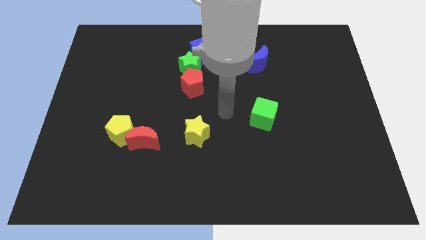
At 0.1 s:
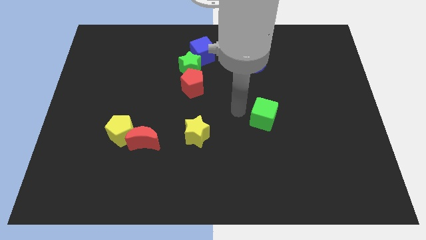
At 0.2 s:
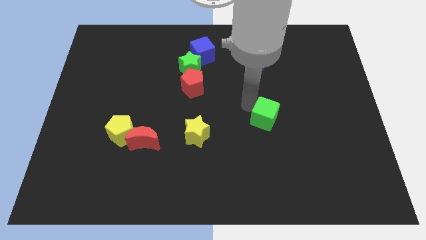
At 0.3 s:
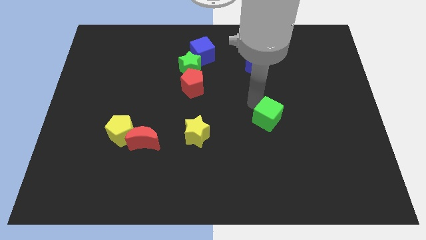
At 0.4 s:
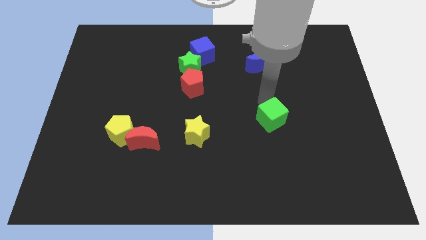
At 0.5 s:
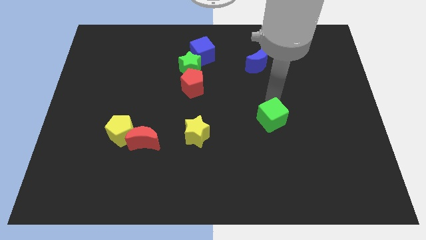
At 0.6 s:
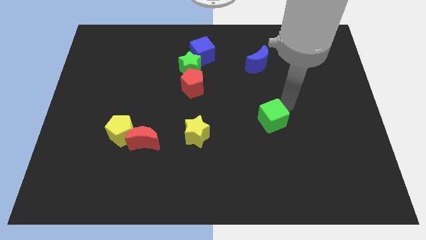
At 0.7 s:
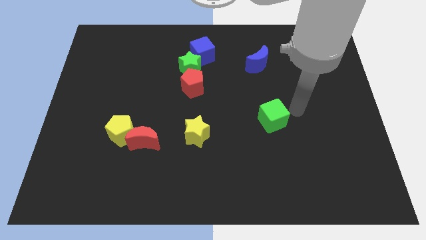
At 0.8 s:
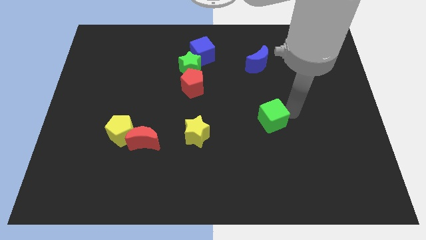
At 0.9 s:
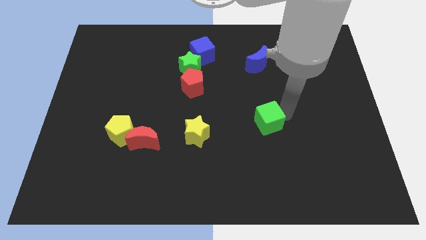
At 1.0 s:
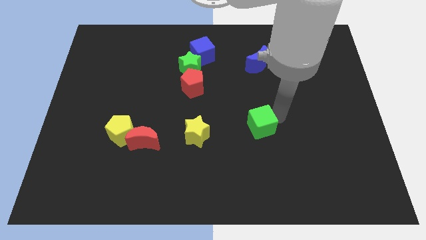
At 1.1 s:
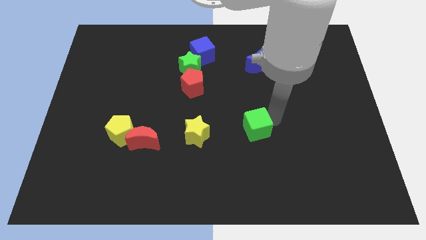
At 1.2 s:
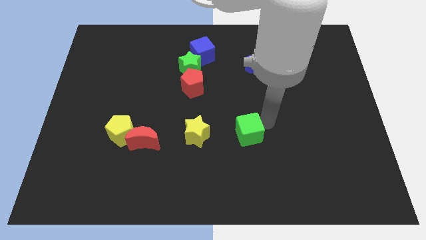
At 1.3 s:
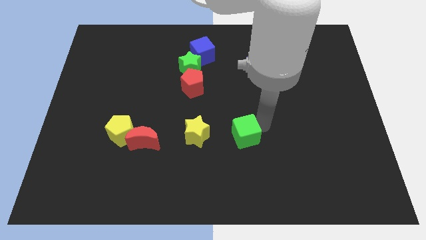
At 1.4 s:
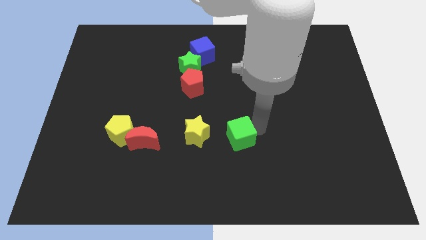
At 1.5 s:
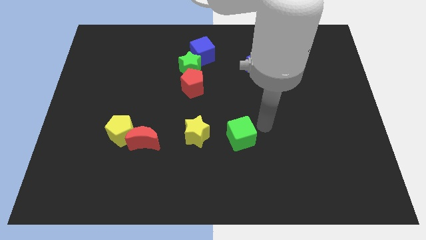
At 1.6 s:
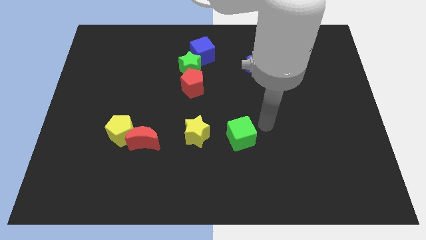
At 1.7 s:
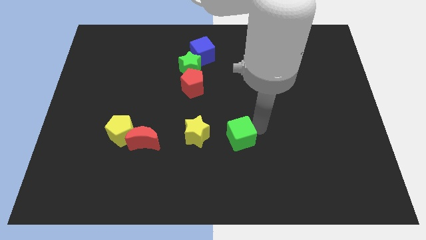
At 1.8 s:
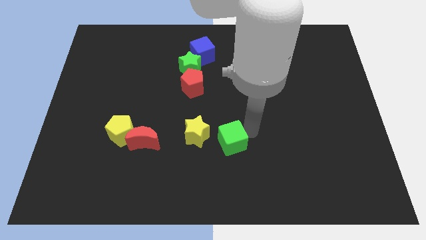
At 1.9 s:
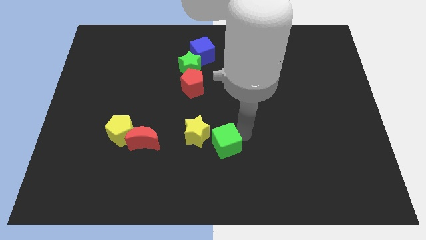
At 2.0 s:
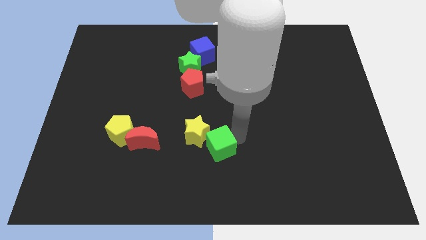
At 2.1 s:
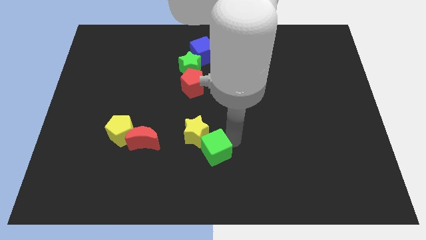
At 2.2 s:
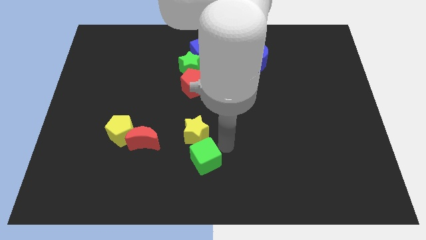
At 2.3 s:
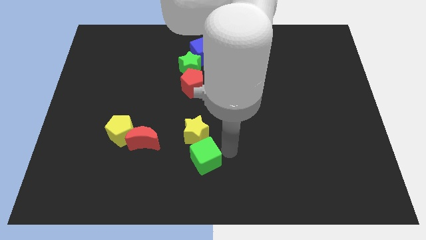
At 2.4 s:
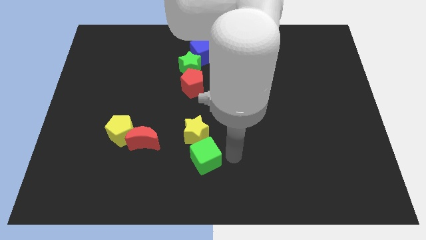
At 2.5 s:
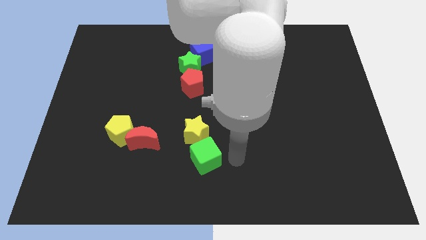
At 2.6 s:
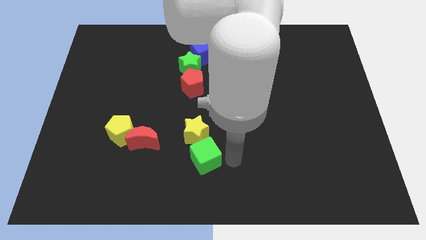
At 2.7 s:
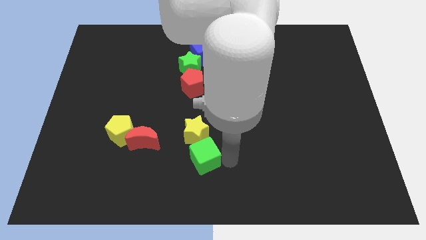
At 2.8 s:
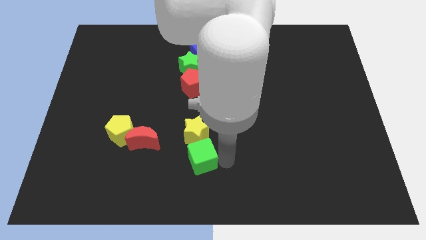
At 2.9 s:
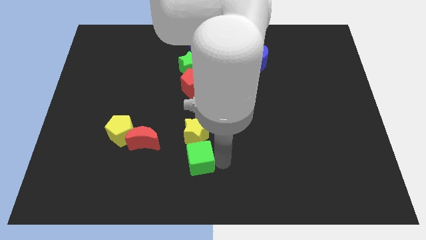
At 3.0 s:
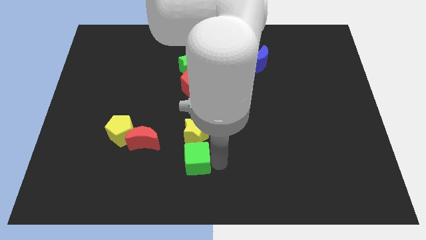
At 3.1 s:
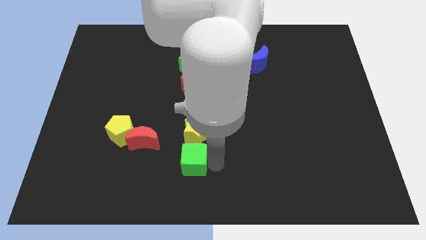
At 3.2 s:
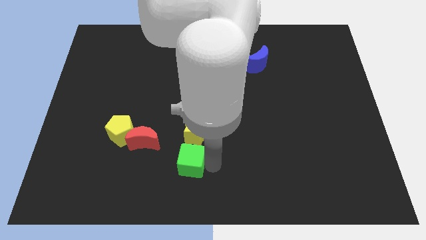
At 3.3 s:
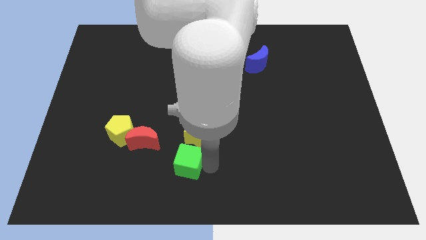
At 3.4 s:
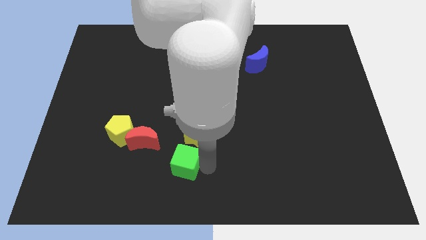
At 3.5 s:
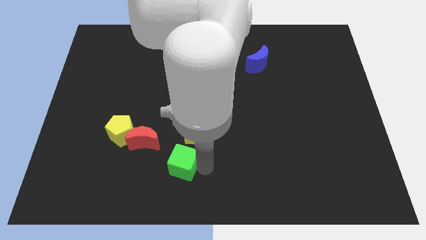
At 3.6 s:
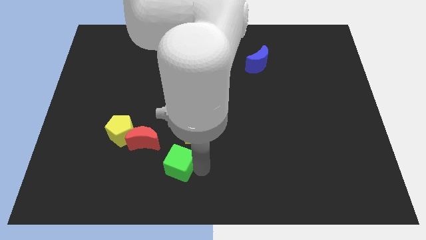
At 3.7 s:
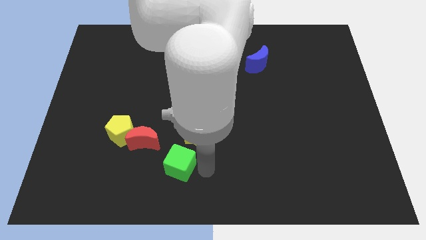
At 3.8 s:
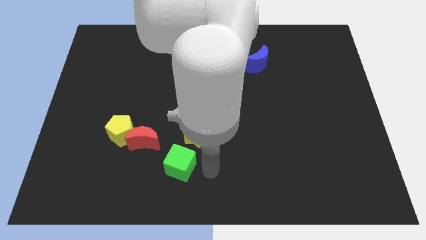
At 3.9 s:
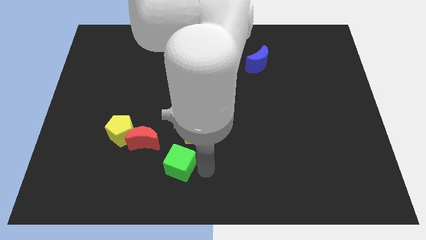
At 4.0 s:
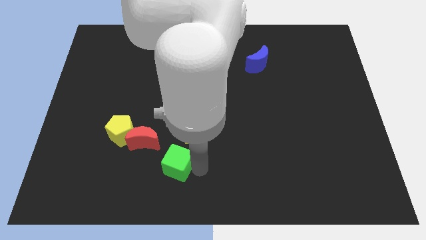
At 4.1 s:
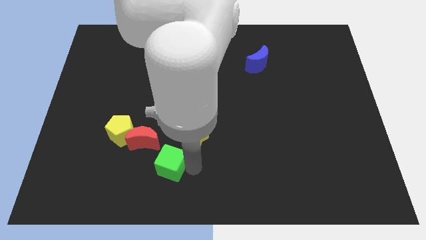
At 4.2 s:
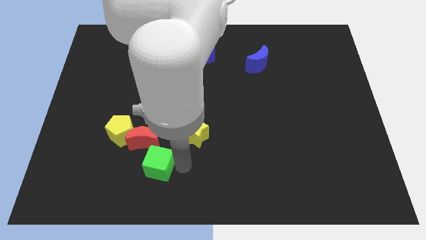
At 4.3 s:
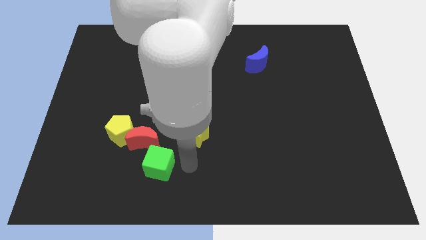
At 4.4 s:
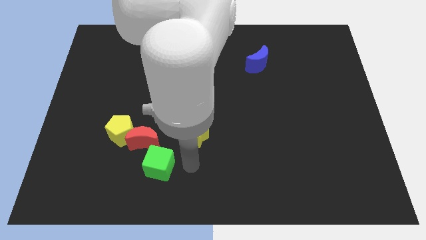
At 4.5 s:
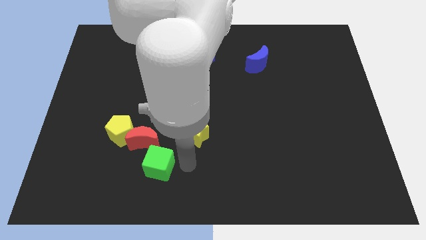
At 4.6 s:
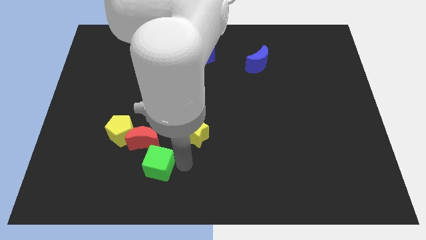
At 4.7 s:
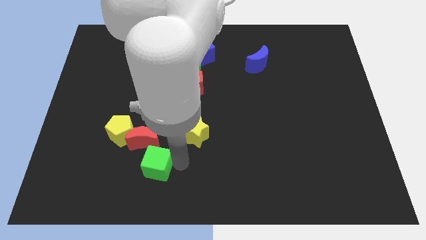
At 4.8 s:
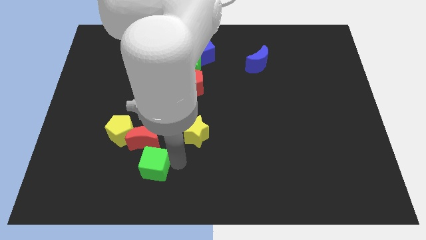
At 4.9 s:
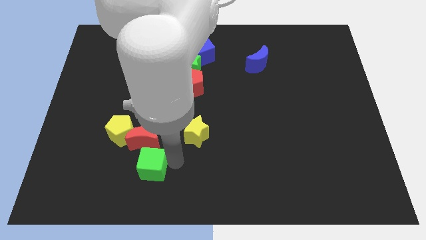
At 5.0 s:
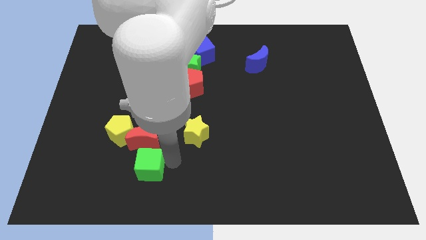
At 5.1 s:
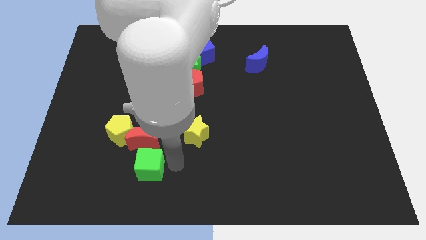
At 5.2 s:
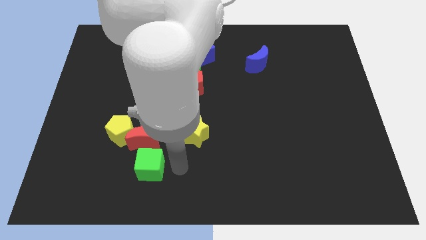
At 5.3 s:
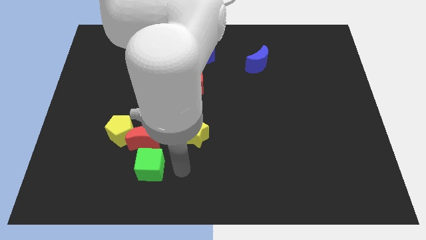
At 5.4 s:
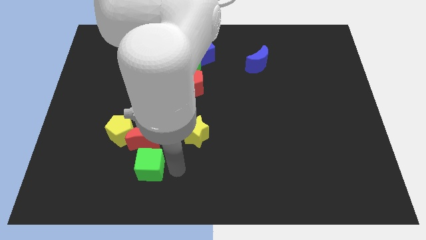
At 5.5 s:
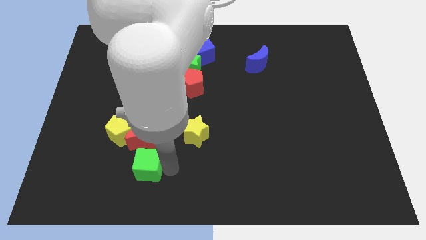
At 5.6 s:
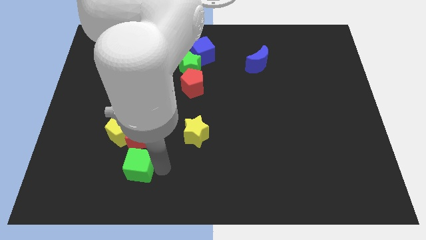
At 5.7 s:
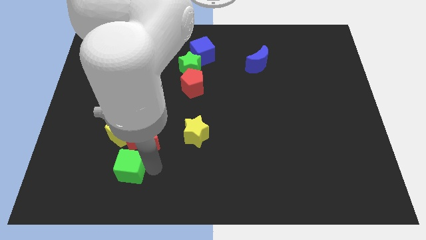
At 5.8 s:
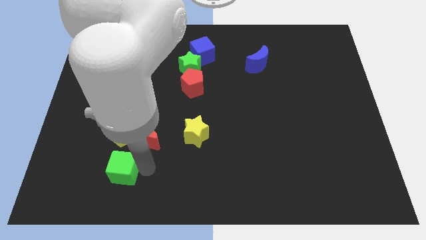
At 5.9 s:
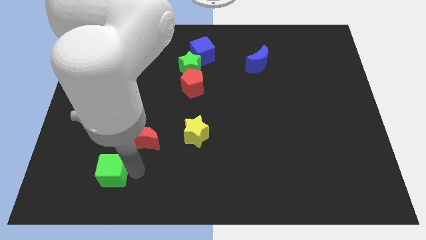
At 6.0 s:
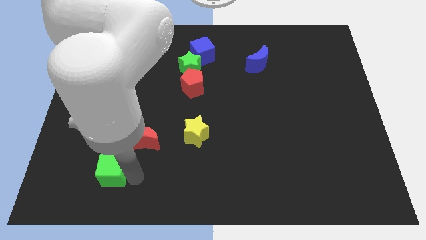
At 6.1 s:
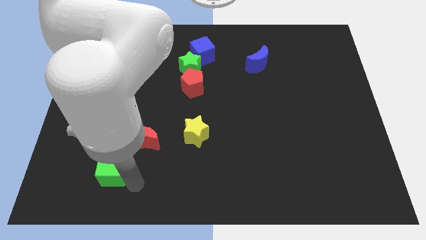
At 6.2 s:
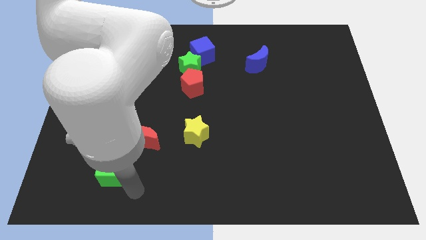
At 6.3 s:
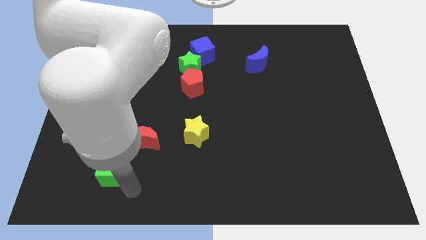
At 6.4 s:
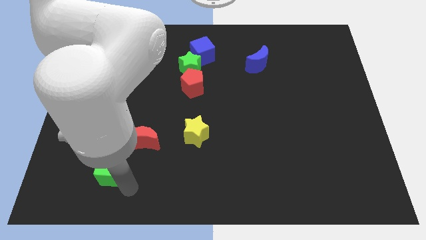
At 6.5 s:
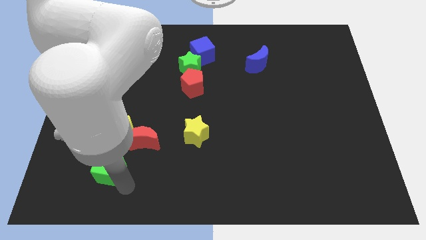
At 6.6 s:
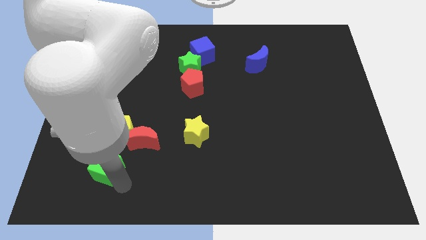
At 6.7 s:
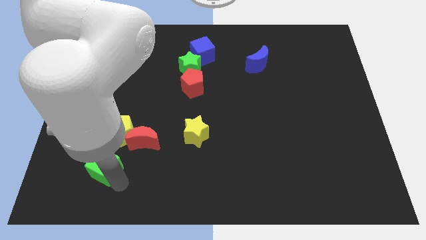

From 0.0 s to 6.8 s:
push the green cube to the bottom left of the yellow pentagon

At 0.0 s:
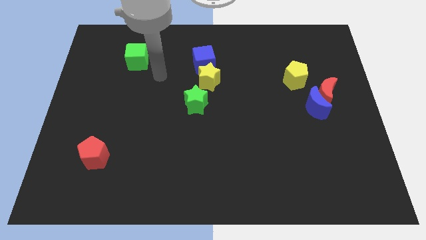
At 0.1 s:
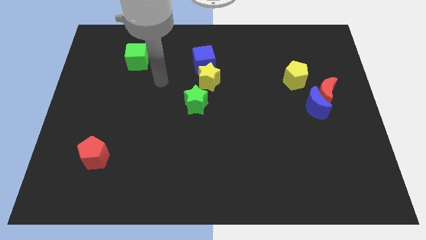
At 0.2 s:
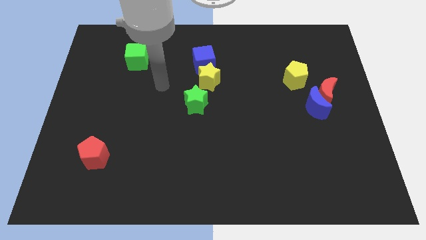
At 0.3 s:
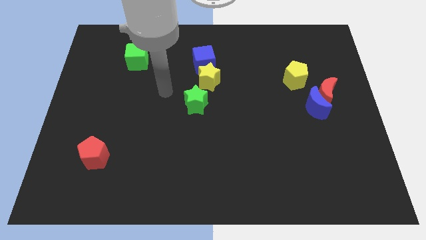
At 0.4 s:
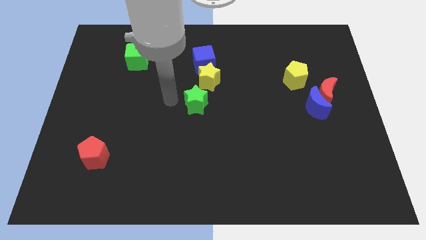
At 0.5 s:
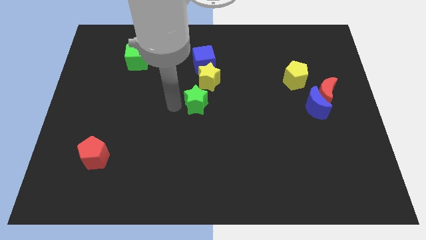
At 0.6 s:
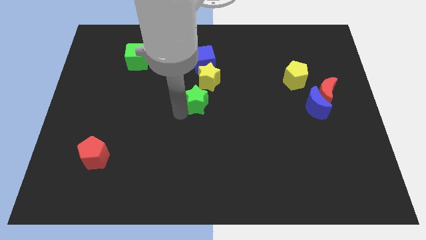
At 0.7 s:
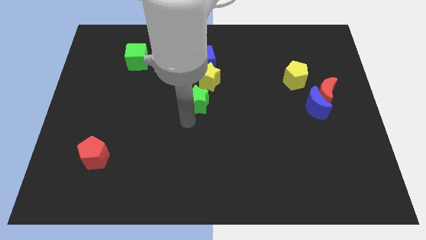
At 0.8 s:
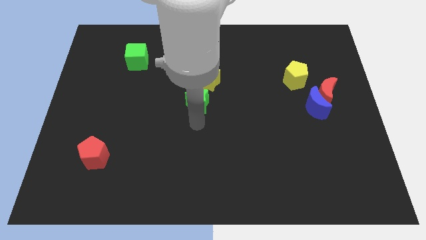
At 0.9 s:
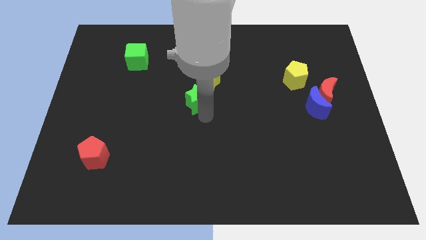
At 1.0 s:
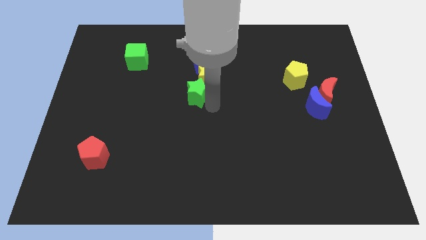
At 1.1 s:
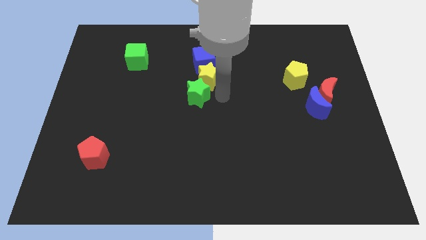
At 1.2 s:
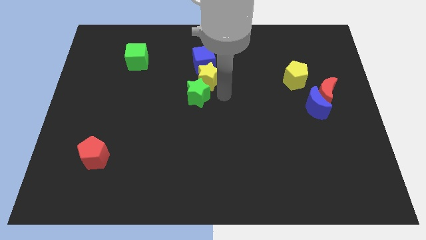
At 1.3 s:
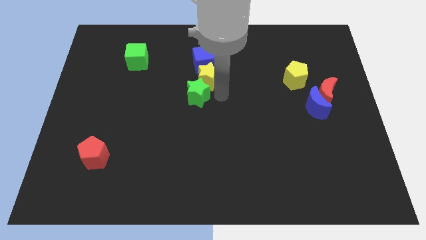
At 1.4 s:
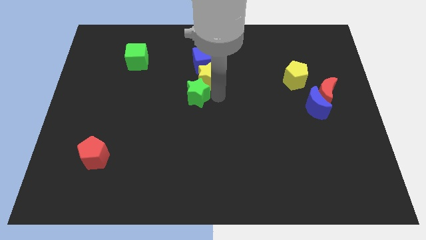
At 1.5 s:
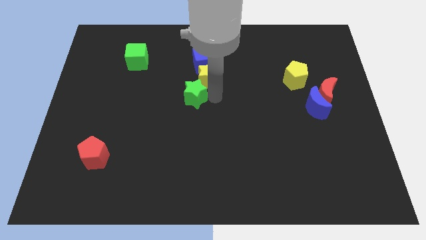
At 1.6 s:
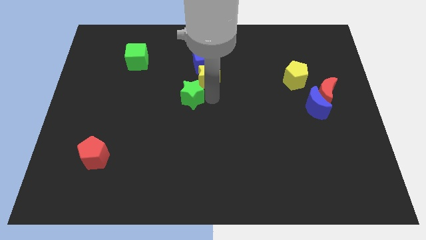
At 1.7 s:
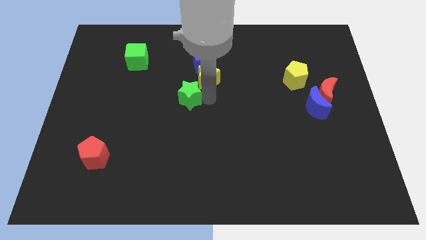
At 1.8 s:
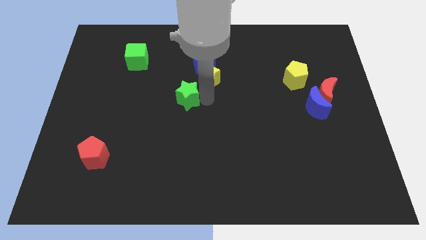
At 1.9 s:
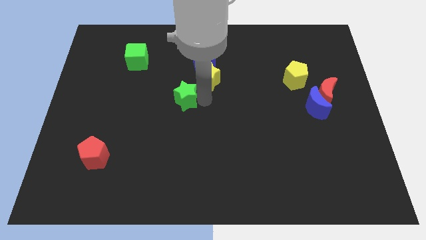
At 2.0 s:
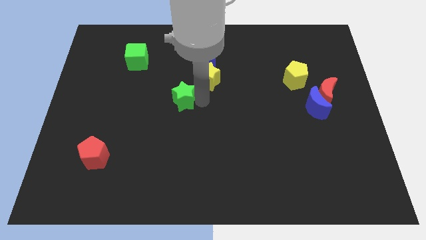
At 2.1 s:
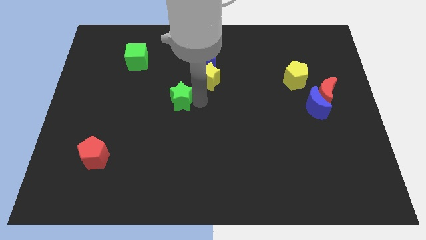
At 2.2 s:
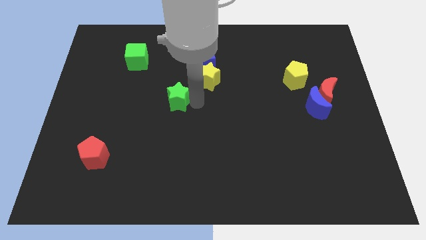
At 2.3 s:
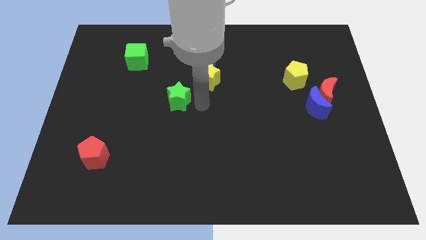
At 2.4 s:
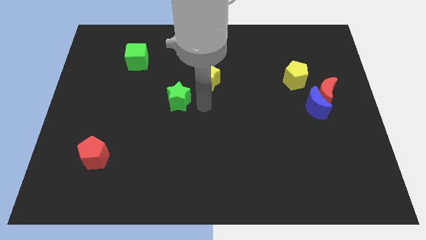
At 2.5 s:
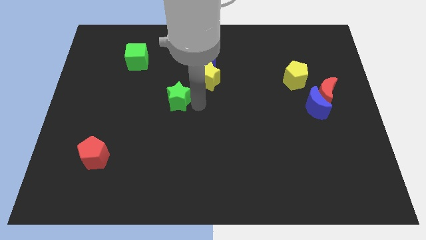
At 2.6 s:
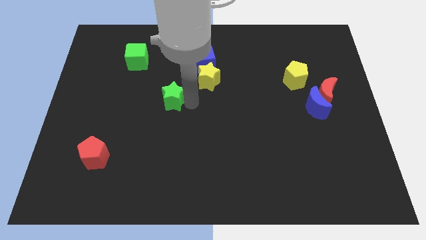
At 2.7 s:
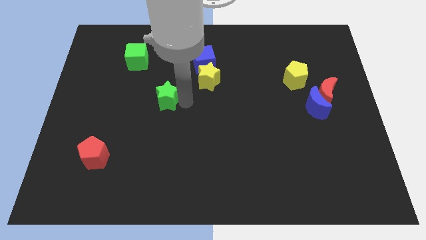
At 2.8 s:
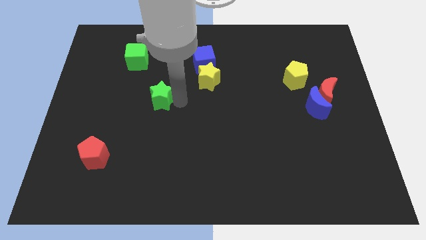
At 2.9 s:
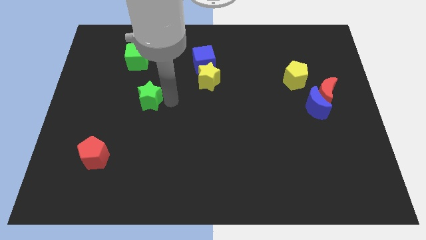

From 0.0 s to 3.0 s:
put the green star below the green cube
